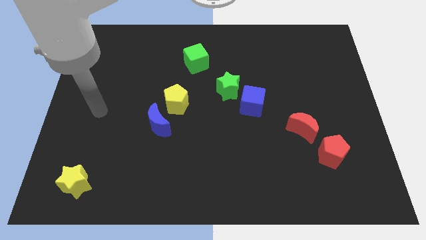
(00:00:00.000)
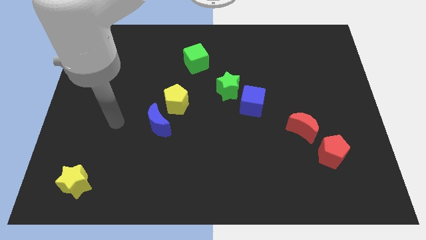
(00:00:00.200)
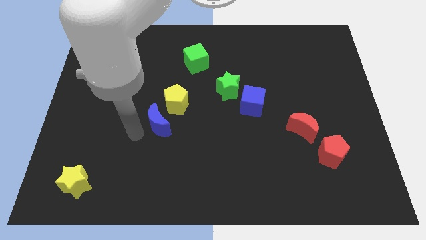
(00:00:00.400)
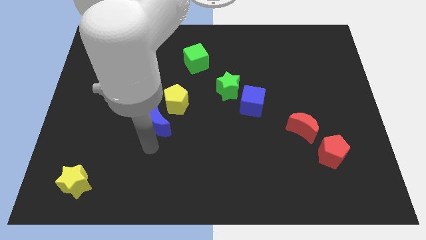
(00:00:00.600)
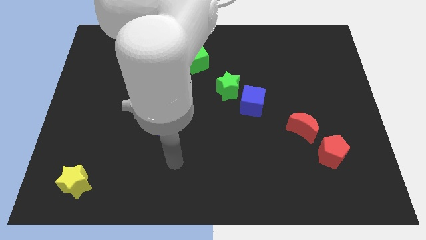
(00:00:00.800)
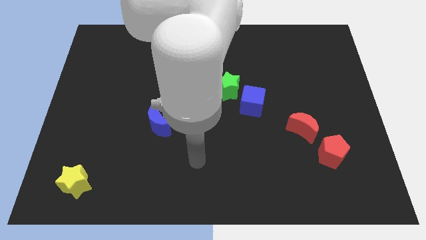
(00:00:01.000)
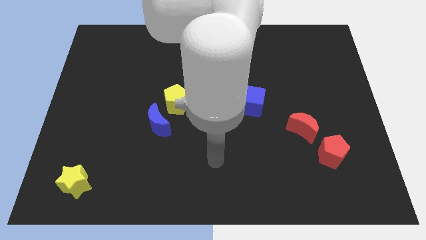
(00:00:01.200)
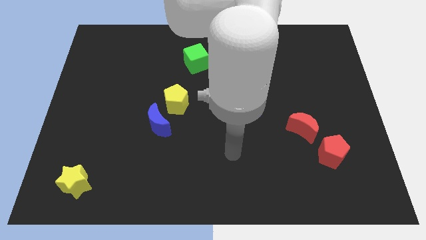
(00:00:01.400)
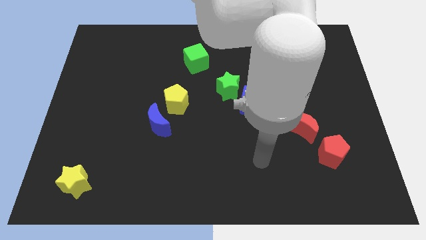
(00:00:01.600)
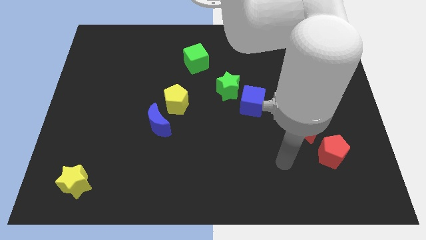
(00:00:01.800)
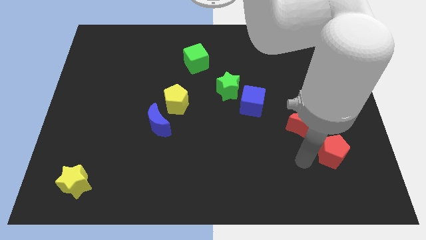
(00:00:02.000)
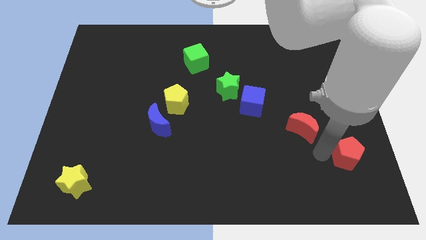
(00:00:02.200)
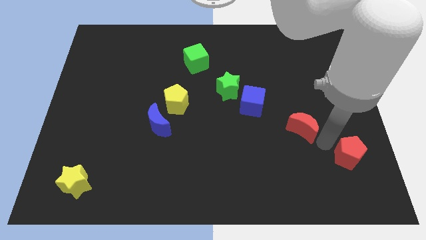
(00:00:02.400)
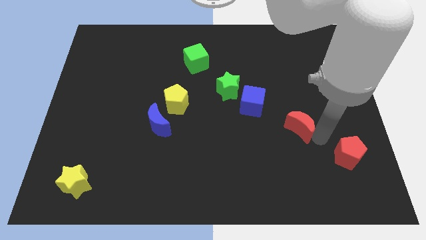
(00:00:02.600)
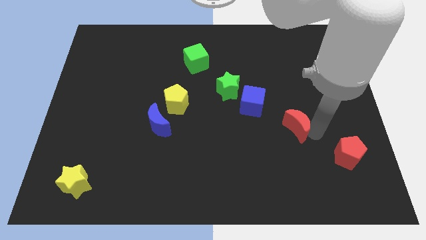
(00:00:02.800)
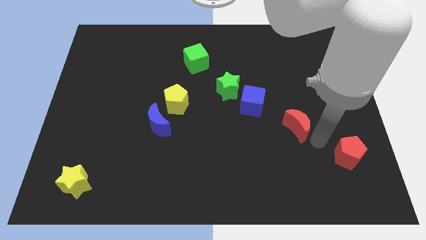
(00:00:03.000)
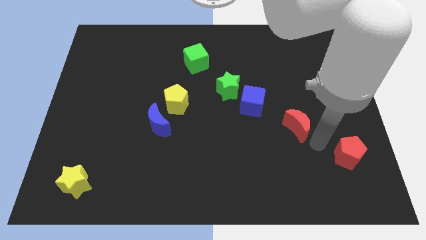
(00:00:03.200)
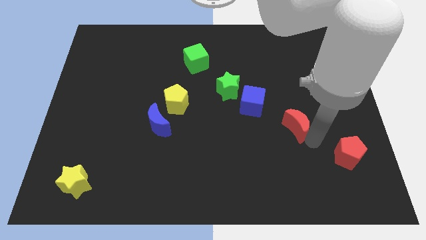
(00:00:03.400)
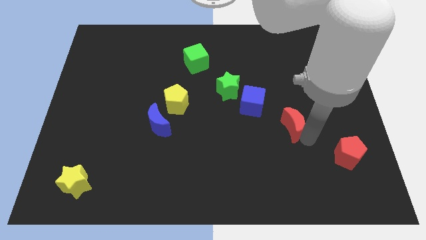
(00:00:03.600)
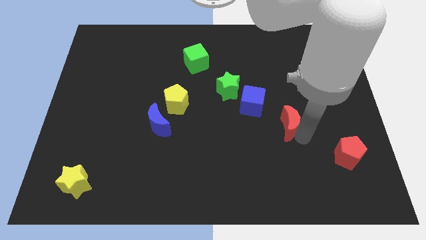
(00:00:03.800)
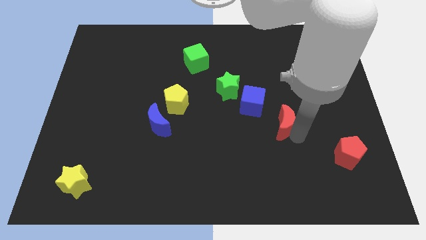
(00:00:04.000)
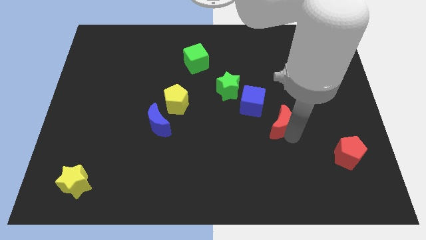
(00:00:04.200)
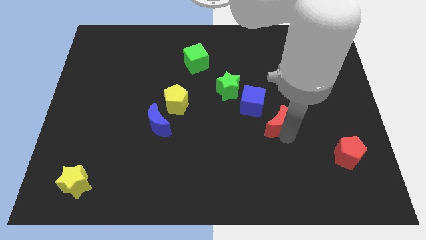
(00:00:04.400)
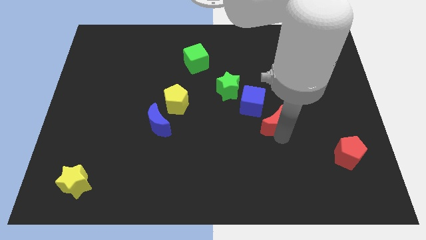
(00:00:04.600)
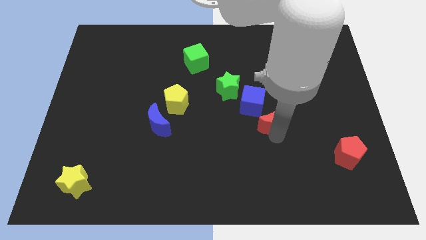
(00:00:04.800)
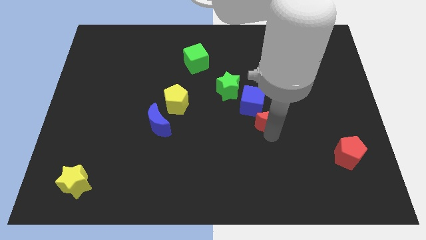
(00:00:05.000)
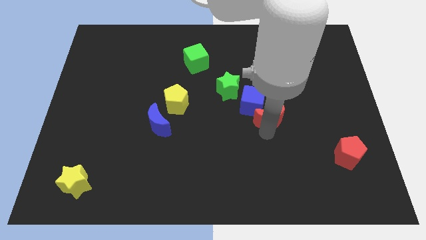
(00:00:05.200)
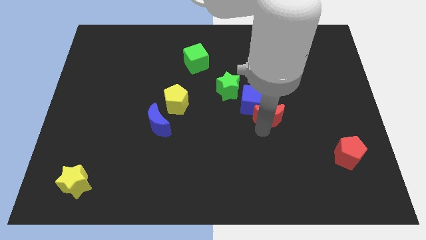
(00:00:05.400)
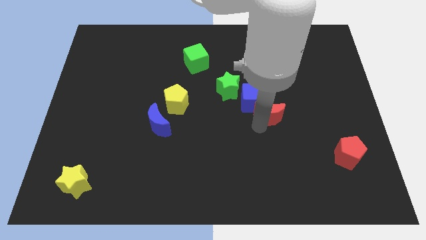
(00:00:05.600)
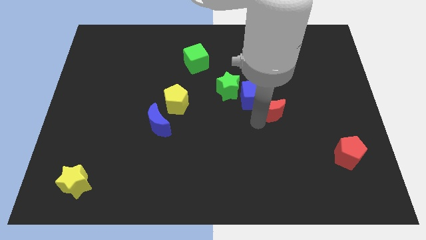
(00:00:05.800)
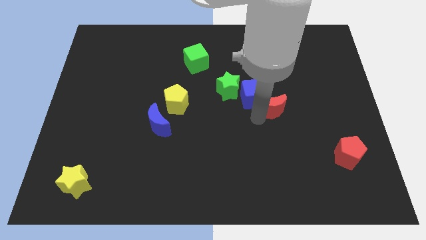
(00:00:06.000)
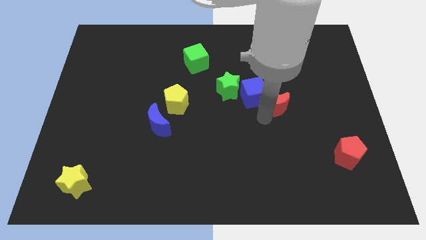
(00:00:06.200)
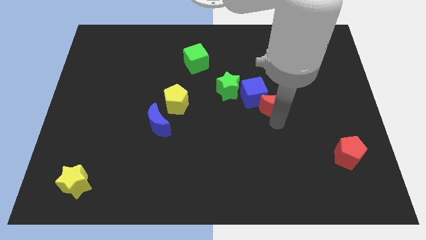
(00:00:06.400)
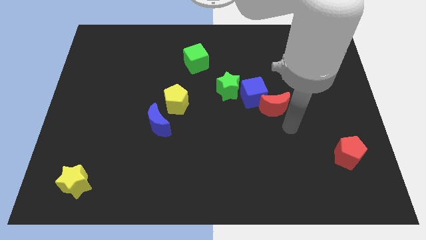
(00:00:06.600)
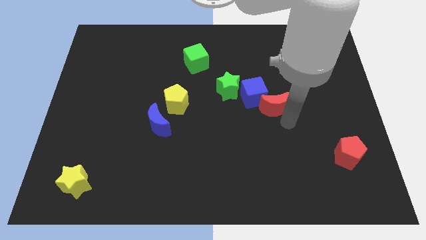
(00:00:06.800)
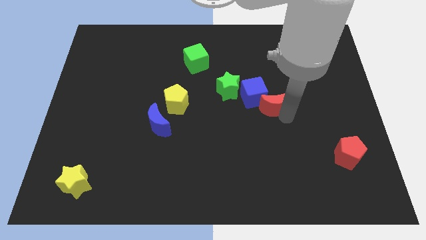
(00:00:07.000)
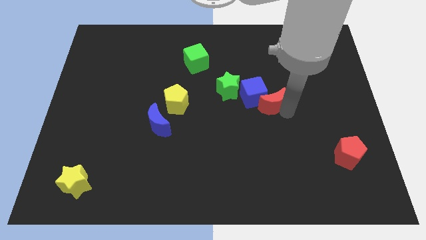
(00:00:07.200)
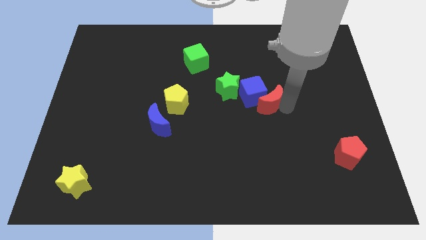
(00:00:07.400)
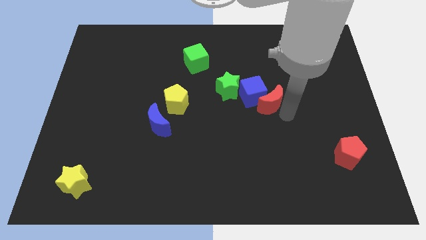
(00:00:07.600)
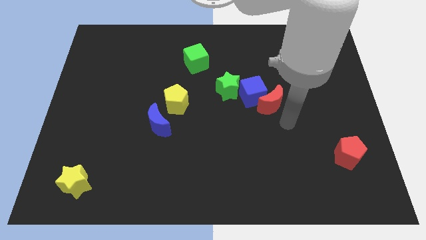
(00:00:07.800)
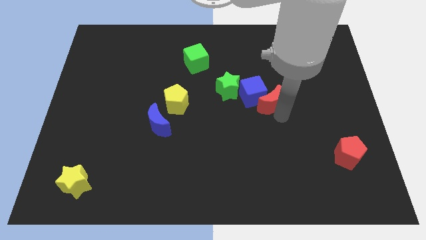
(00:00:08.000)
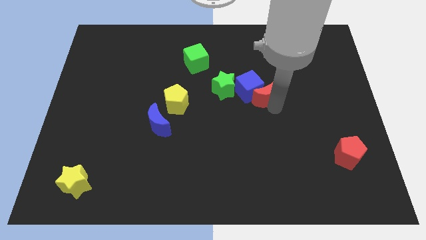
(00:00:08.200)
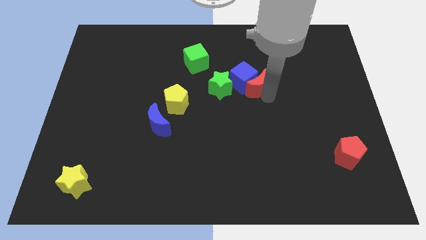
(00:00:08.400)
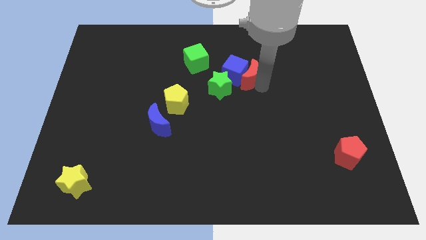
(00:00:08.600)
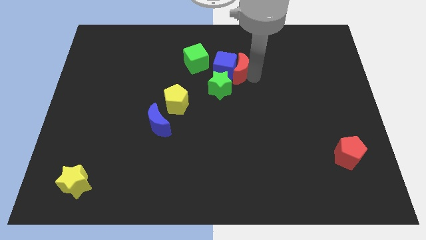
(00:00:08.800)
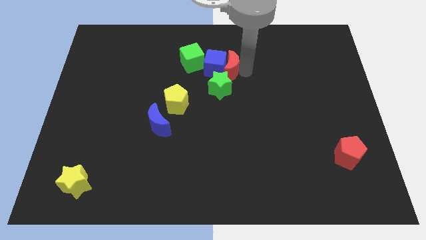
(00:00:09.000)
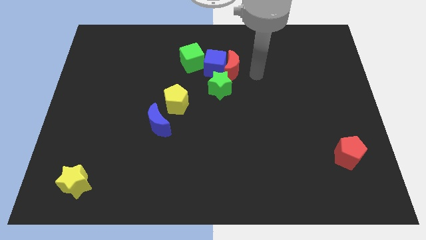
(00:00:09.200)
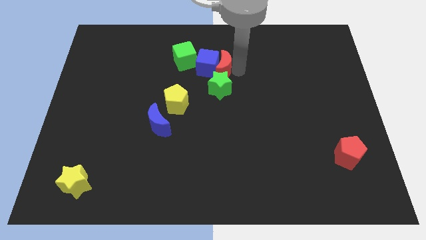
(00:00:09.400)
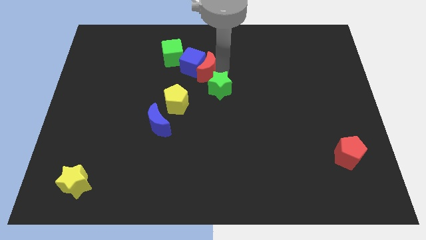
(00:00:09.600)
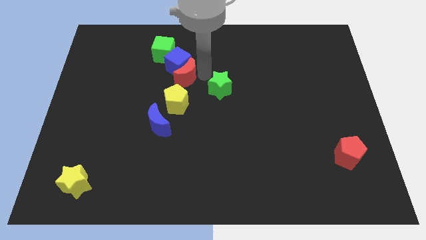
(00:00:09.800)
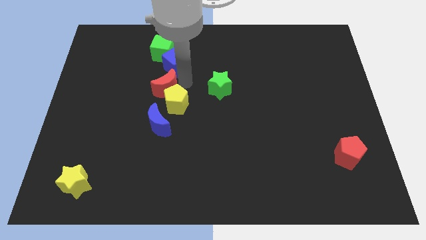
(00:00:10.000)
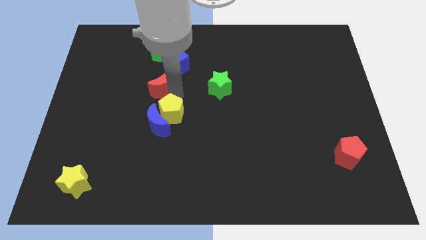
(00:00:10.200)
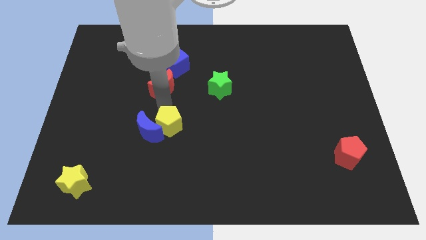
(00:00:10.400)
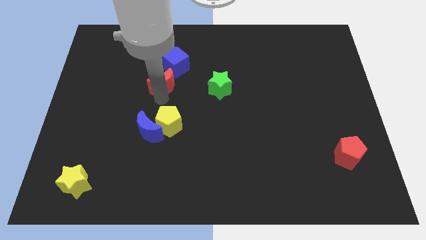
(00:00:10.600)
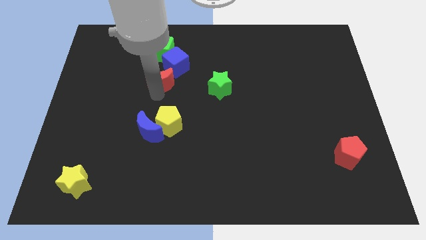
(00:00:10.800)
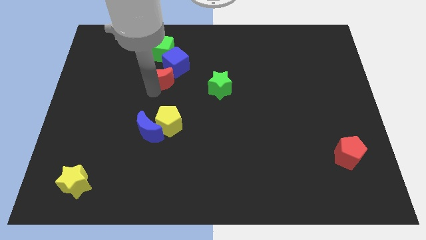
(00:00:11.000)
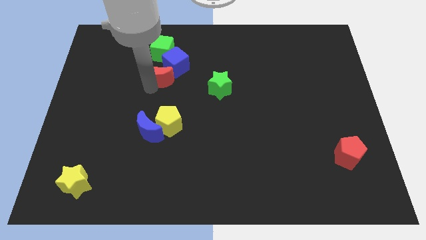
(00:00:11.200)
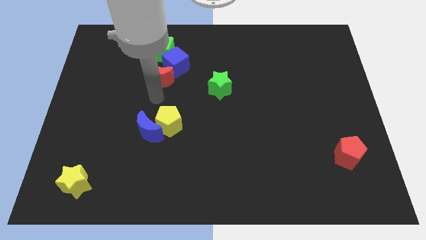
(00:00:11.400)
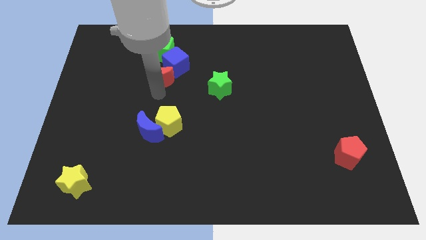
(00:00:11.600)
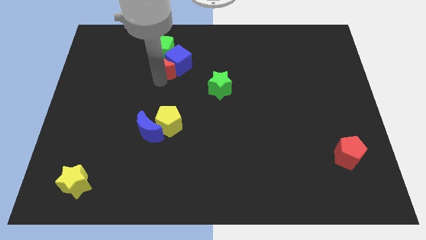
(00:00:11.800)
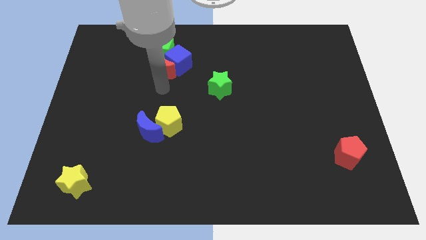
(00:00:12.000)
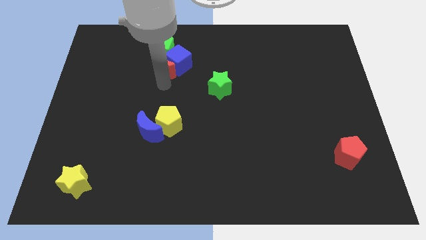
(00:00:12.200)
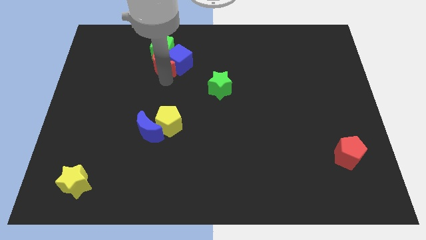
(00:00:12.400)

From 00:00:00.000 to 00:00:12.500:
put the red moon next to the green cube
